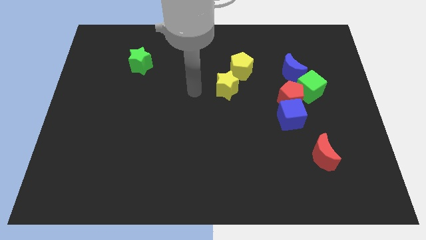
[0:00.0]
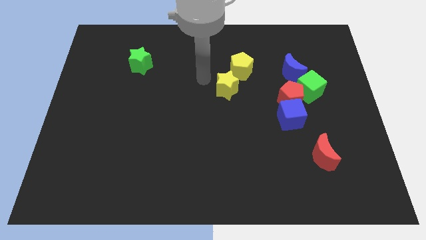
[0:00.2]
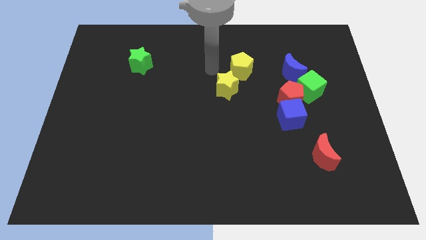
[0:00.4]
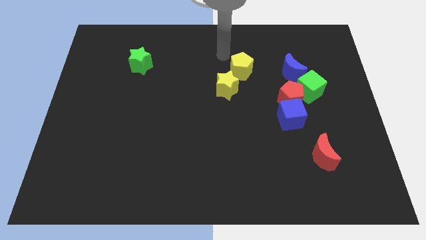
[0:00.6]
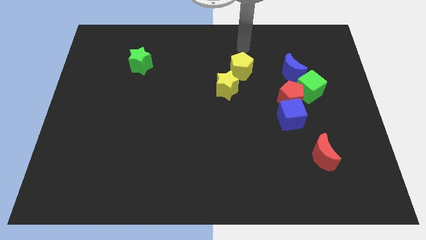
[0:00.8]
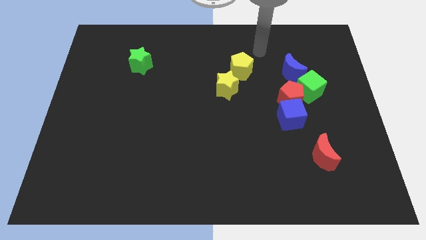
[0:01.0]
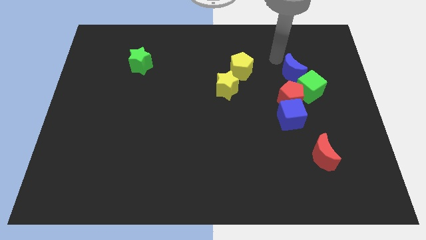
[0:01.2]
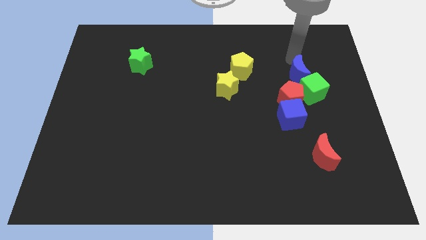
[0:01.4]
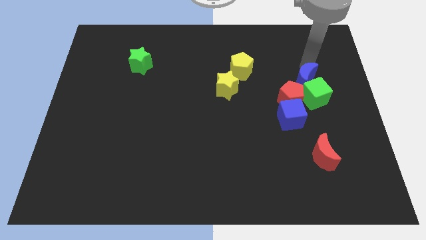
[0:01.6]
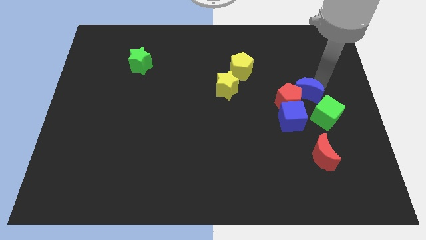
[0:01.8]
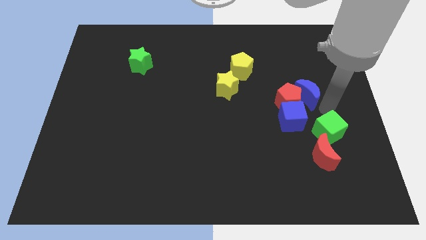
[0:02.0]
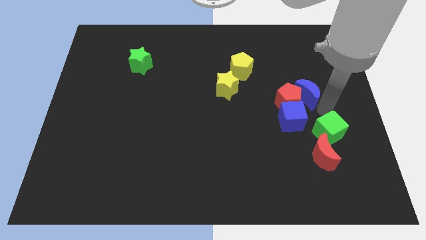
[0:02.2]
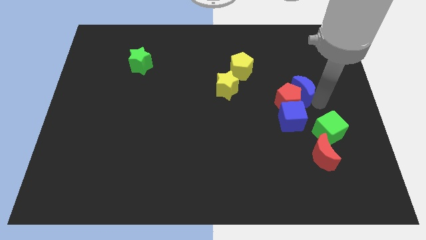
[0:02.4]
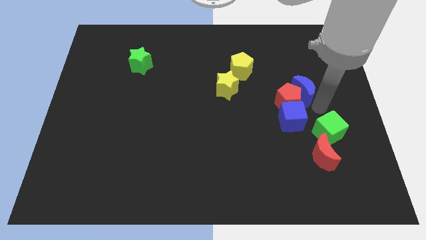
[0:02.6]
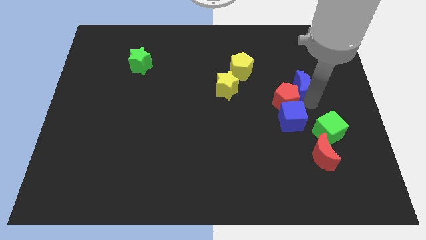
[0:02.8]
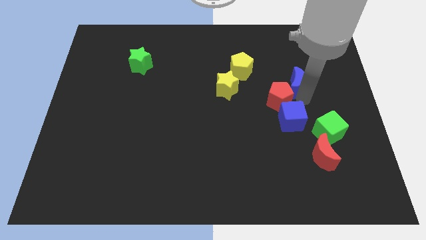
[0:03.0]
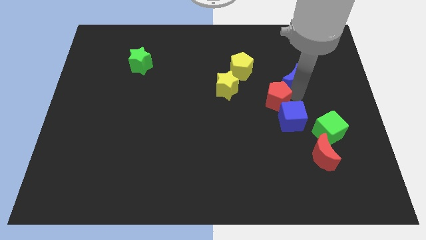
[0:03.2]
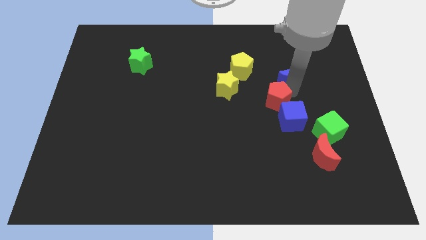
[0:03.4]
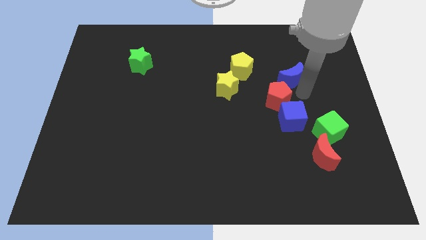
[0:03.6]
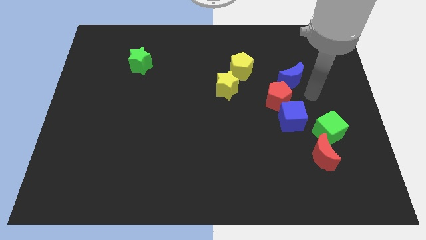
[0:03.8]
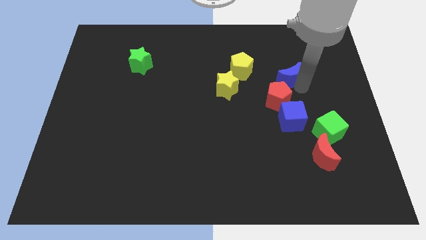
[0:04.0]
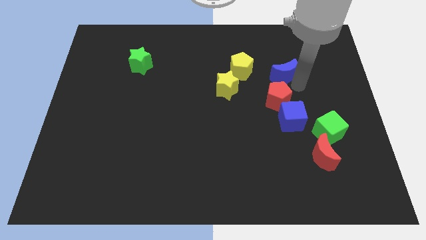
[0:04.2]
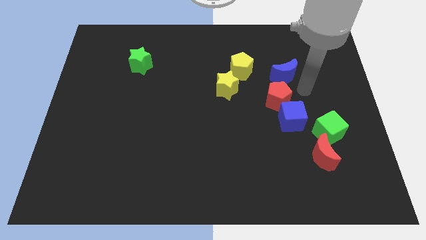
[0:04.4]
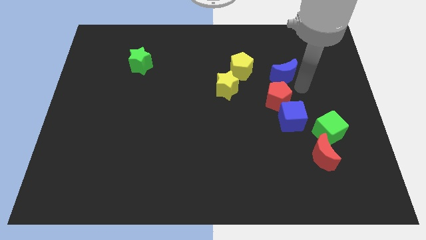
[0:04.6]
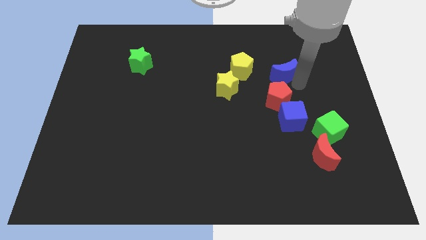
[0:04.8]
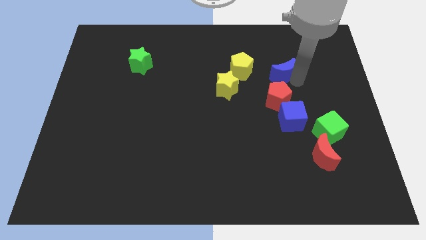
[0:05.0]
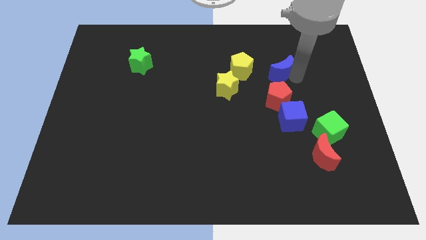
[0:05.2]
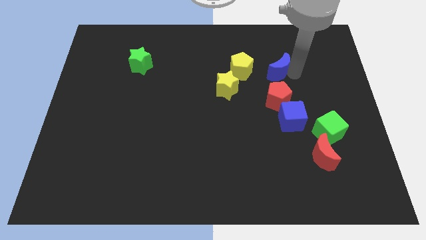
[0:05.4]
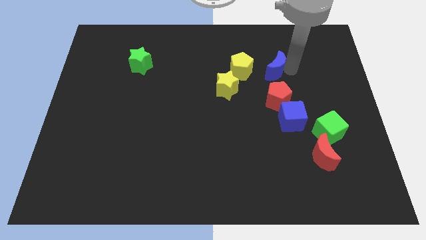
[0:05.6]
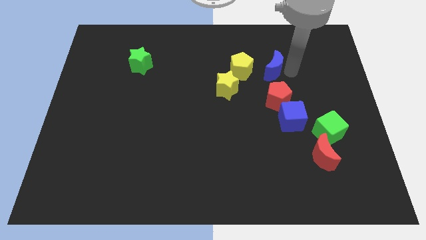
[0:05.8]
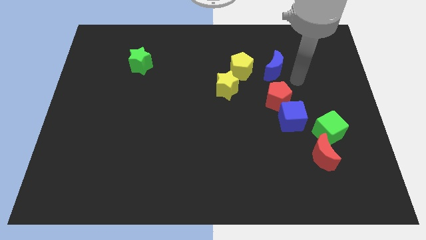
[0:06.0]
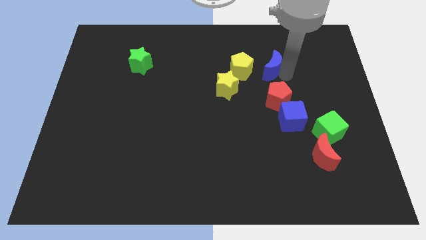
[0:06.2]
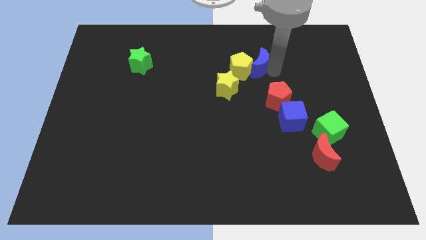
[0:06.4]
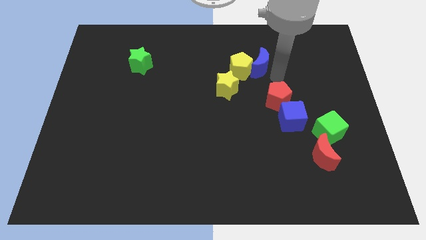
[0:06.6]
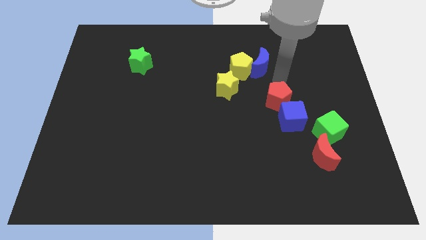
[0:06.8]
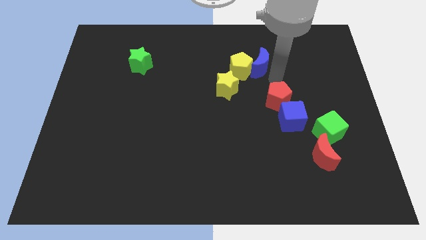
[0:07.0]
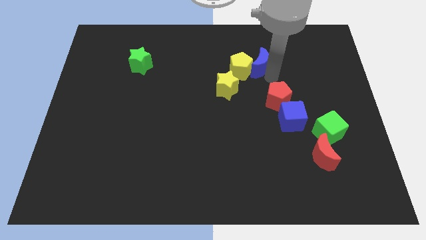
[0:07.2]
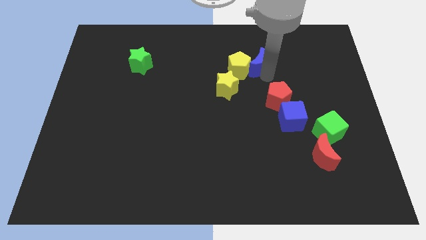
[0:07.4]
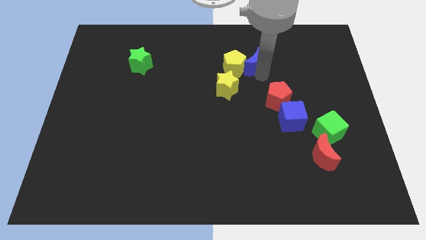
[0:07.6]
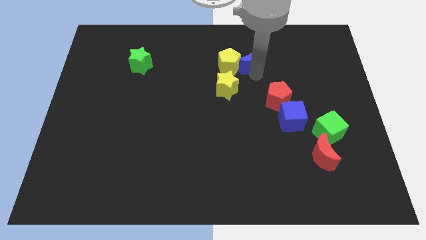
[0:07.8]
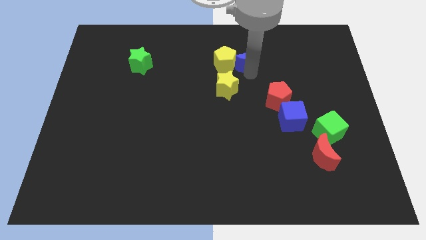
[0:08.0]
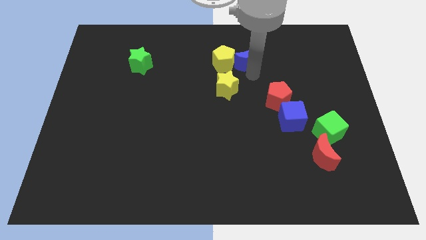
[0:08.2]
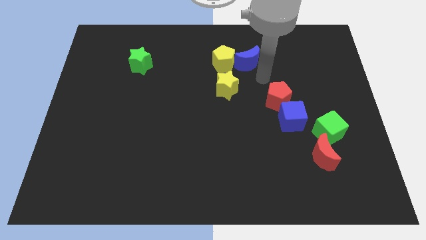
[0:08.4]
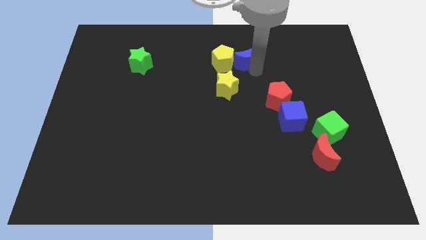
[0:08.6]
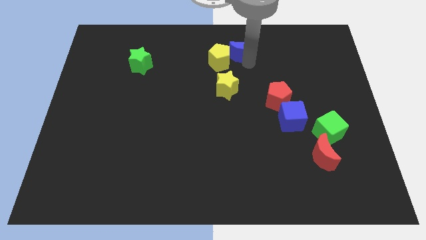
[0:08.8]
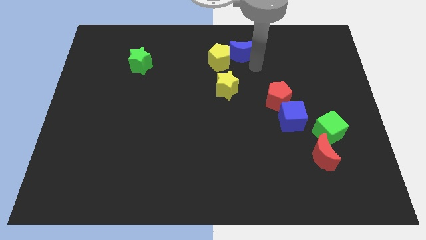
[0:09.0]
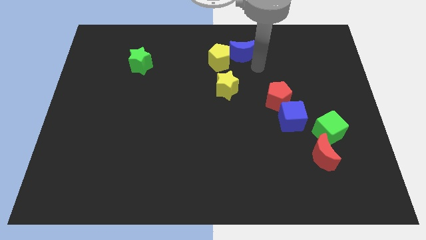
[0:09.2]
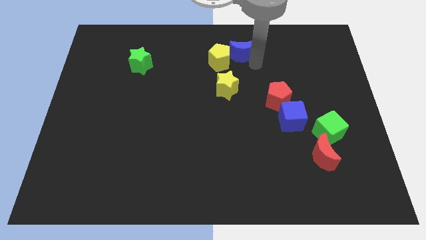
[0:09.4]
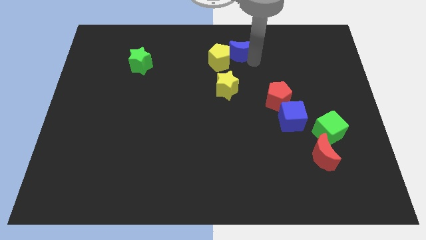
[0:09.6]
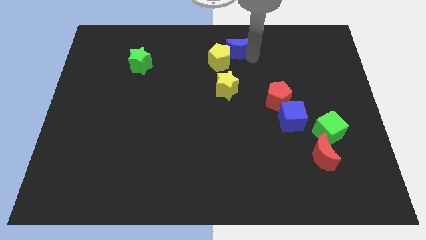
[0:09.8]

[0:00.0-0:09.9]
put the blue moon to the top side

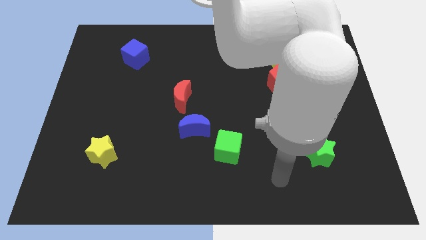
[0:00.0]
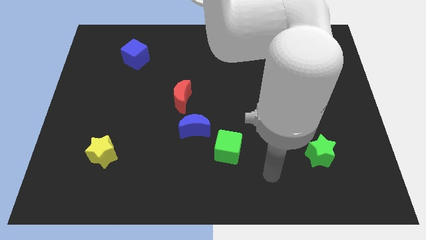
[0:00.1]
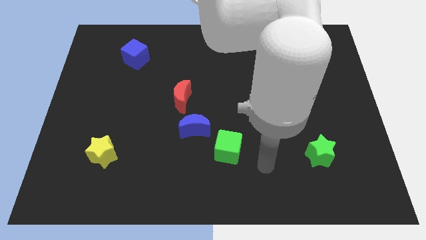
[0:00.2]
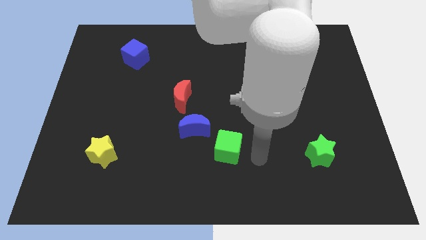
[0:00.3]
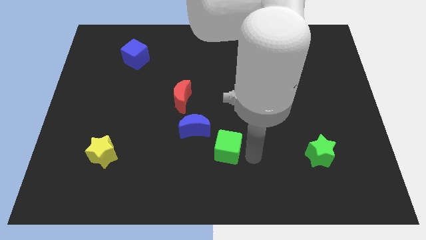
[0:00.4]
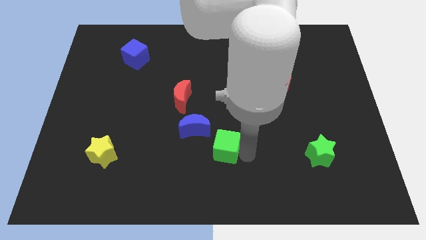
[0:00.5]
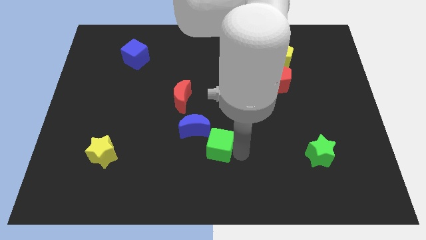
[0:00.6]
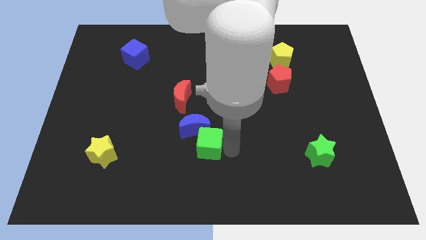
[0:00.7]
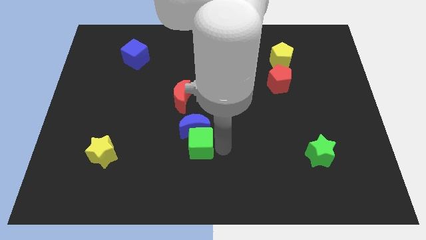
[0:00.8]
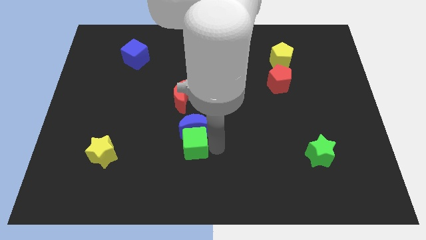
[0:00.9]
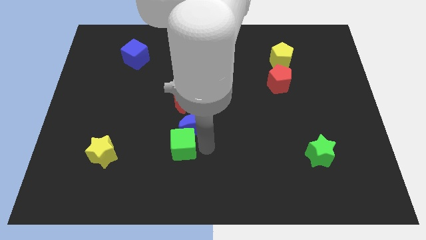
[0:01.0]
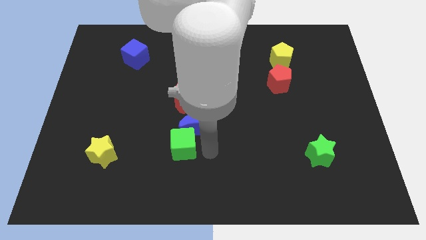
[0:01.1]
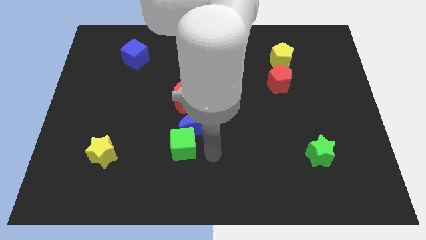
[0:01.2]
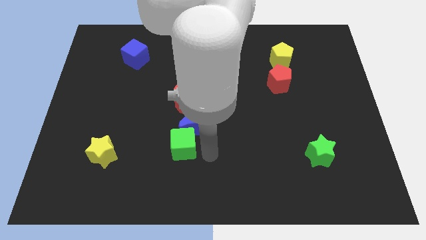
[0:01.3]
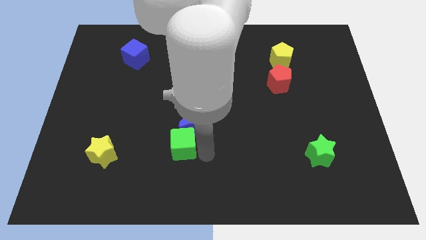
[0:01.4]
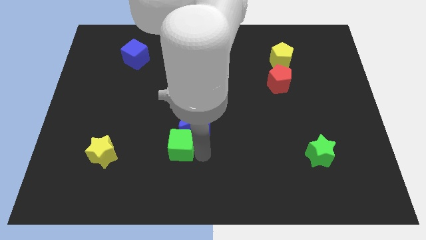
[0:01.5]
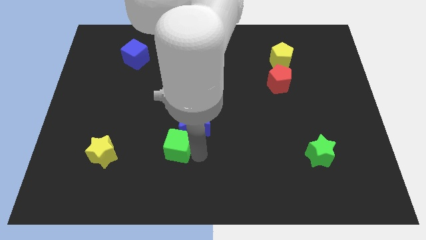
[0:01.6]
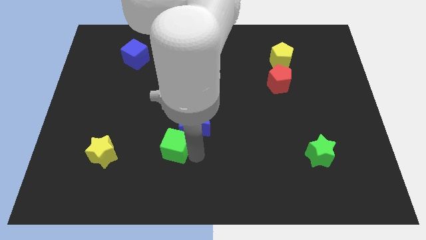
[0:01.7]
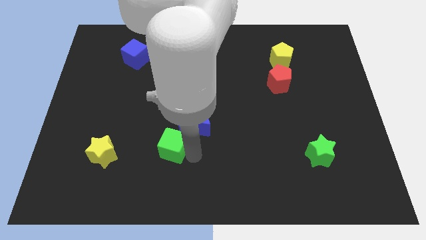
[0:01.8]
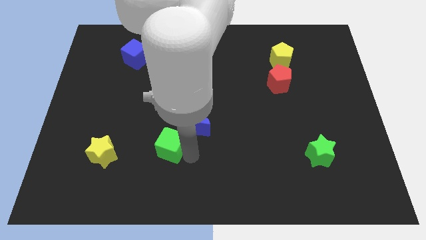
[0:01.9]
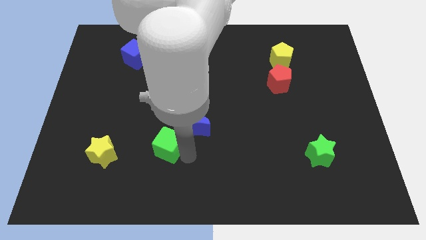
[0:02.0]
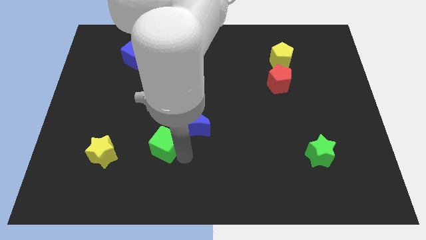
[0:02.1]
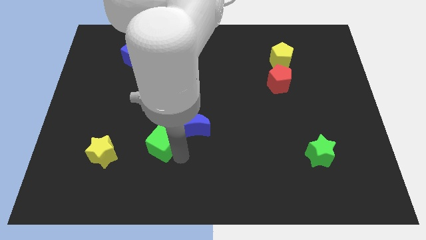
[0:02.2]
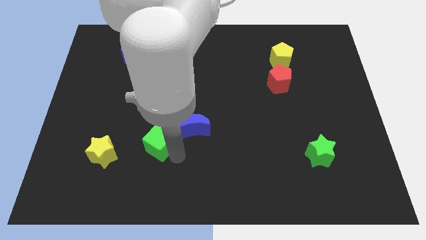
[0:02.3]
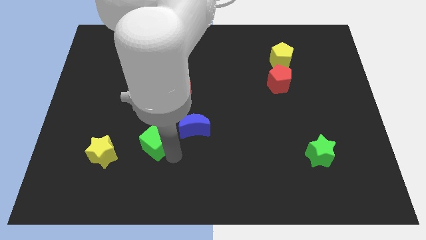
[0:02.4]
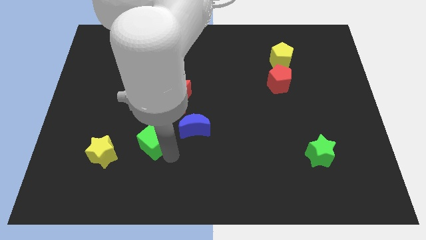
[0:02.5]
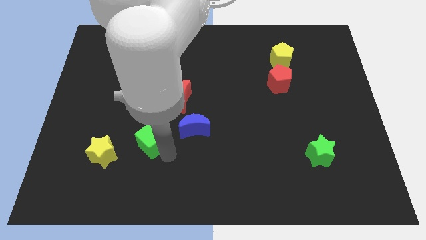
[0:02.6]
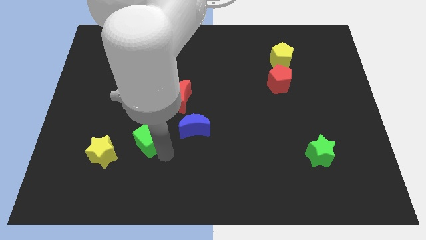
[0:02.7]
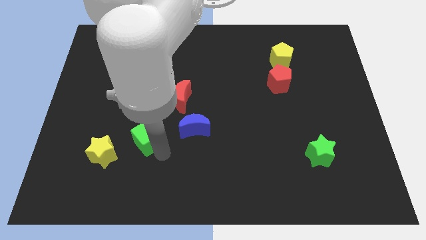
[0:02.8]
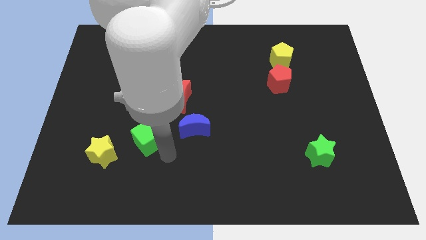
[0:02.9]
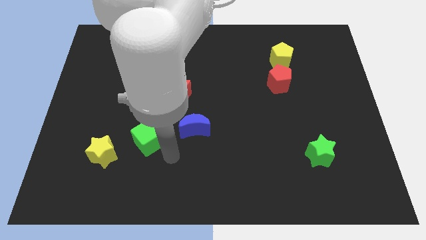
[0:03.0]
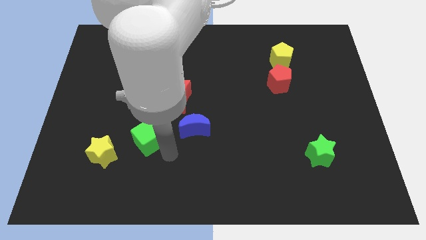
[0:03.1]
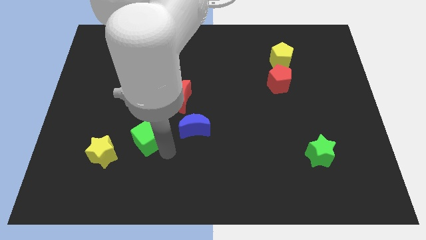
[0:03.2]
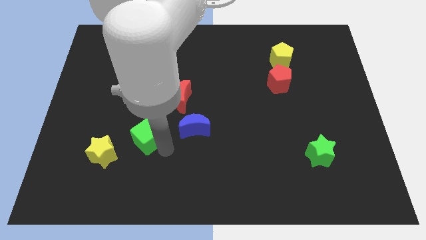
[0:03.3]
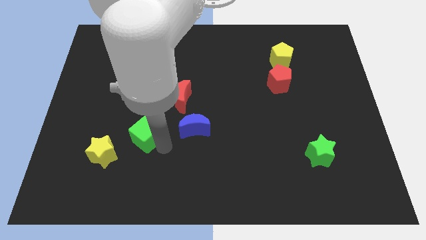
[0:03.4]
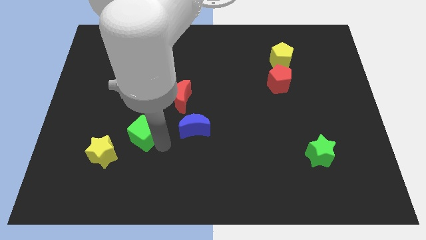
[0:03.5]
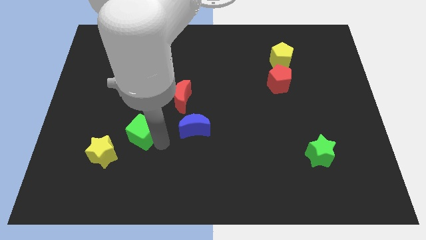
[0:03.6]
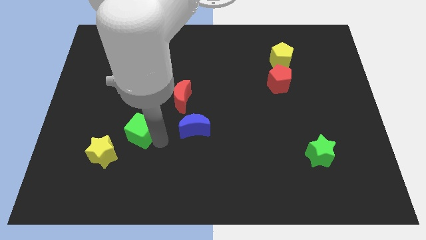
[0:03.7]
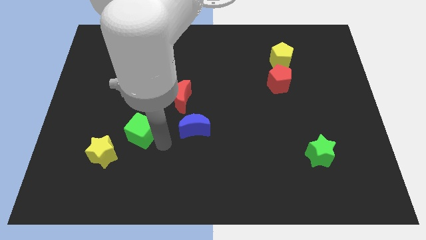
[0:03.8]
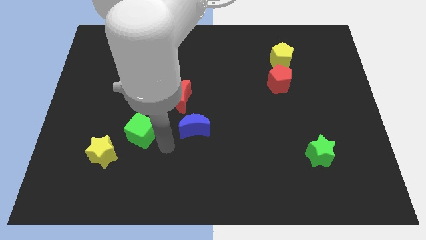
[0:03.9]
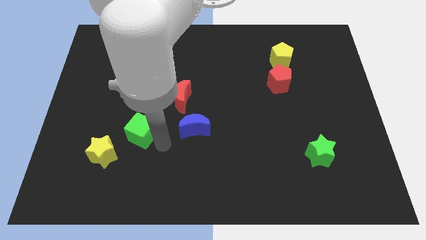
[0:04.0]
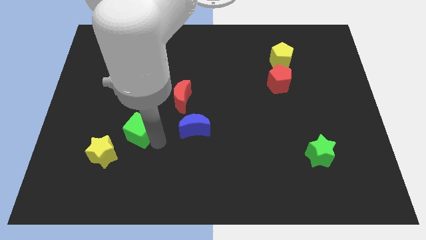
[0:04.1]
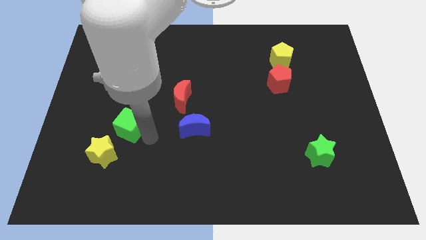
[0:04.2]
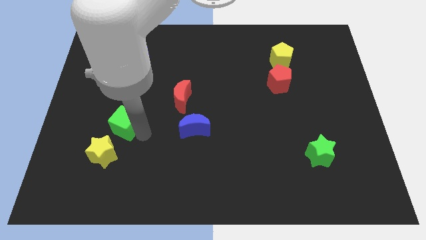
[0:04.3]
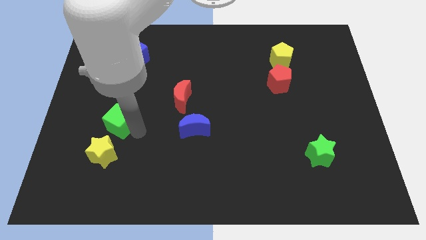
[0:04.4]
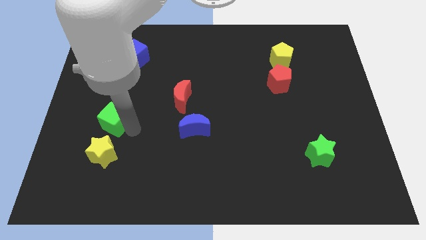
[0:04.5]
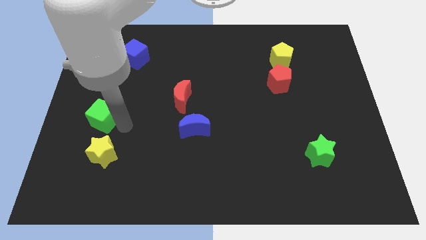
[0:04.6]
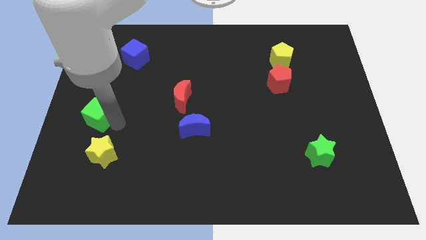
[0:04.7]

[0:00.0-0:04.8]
push the green cube to the center left
